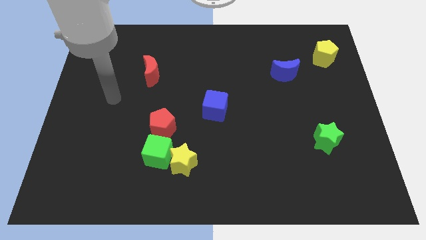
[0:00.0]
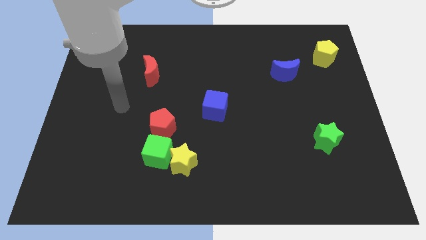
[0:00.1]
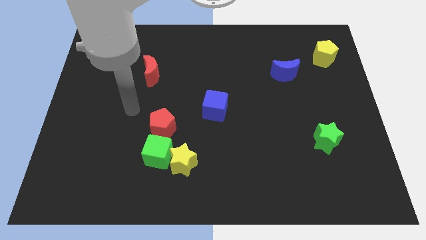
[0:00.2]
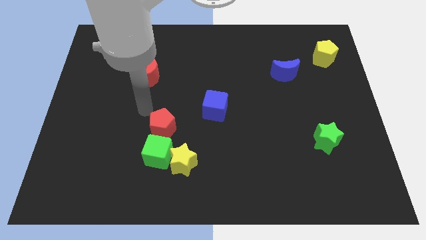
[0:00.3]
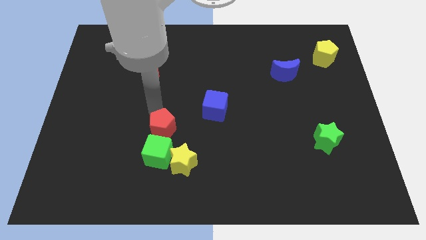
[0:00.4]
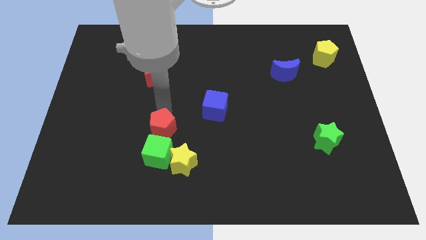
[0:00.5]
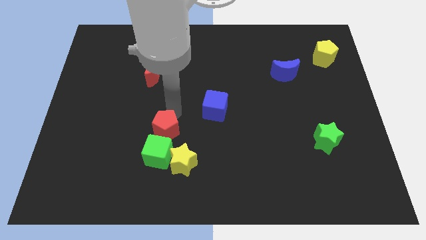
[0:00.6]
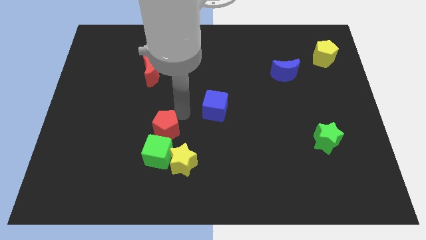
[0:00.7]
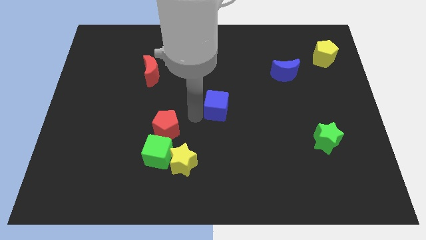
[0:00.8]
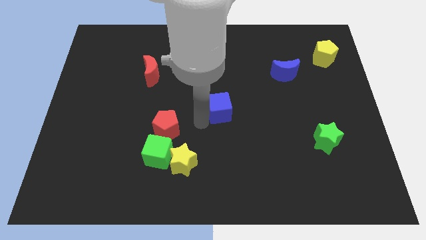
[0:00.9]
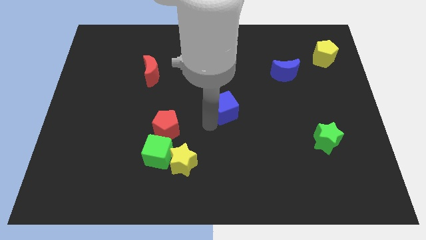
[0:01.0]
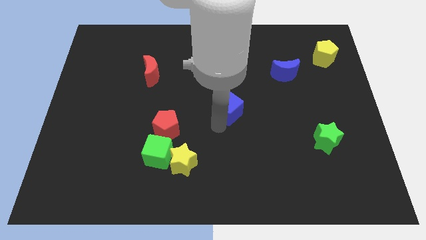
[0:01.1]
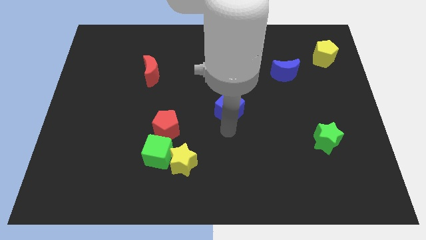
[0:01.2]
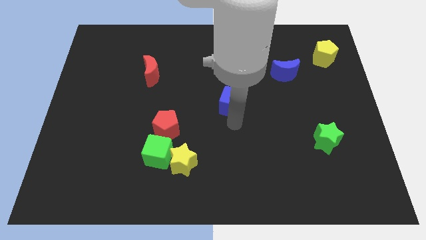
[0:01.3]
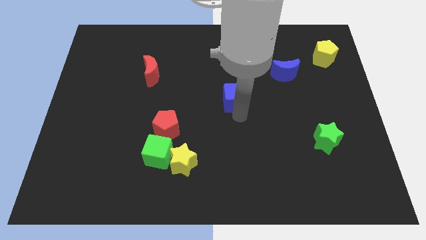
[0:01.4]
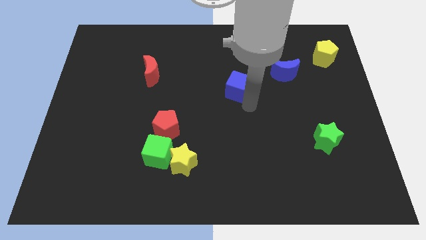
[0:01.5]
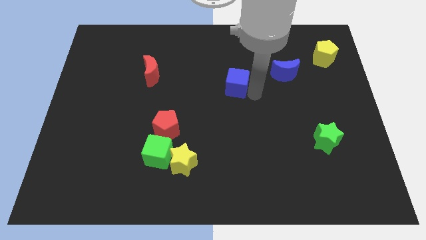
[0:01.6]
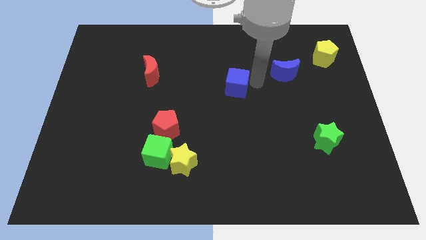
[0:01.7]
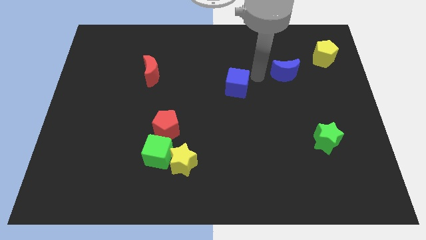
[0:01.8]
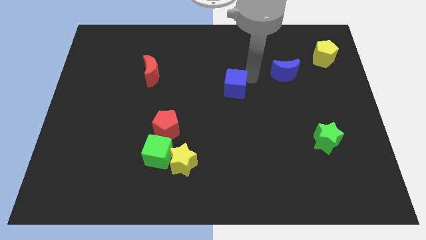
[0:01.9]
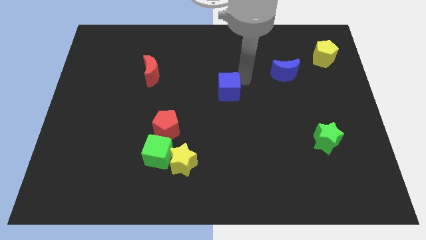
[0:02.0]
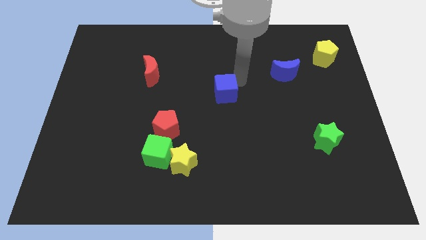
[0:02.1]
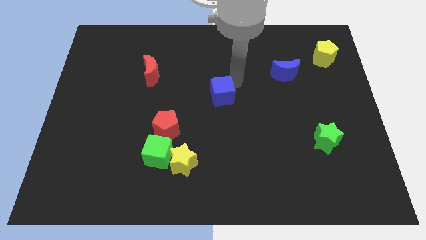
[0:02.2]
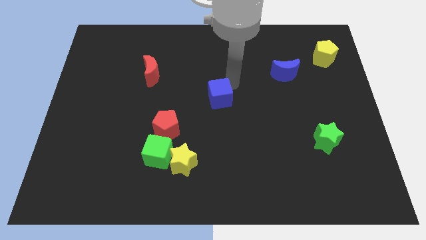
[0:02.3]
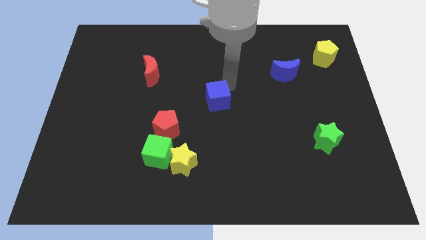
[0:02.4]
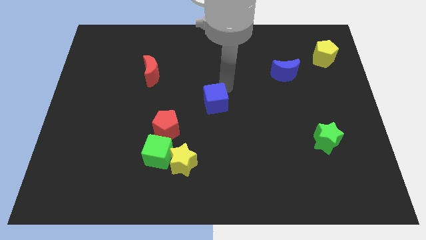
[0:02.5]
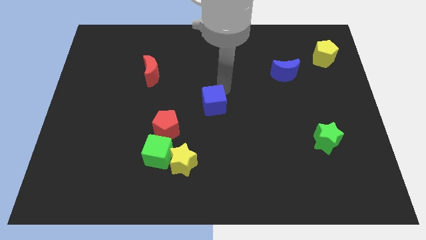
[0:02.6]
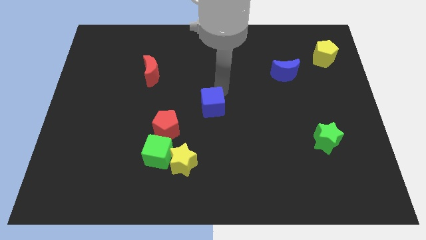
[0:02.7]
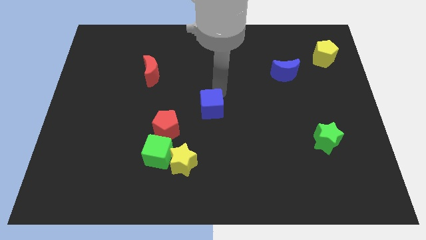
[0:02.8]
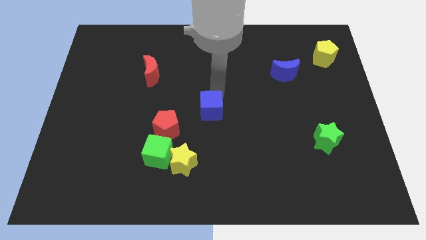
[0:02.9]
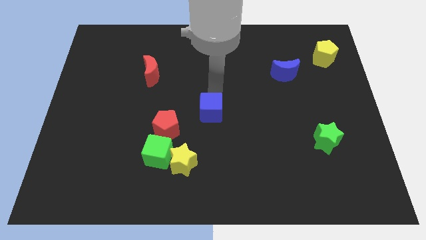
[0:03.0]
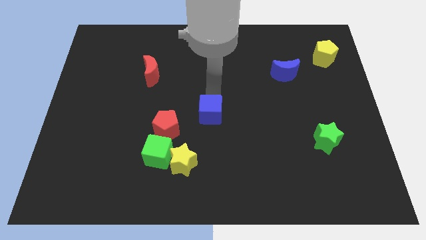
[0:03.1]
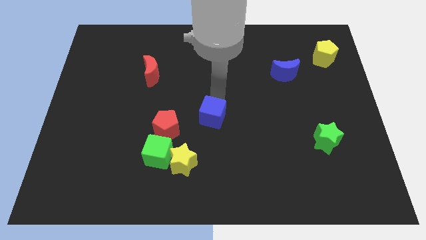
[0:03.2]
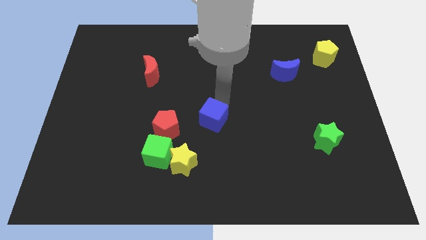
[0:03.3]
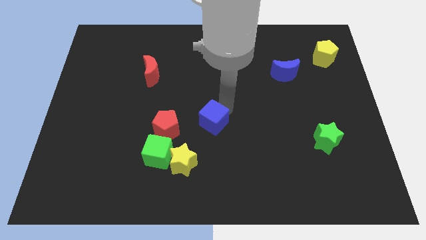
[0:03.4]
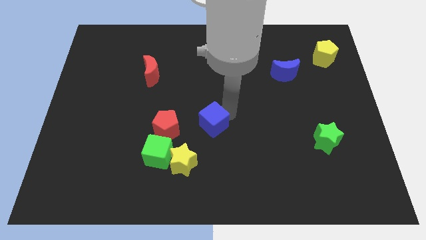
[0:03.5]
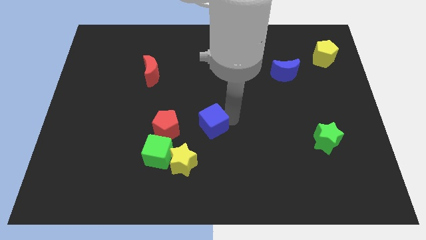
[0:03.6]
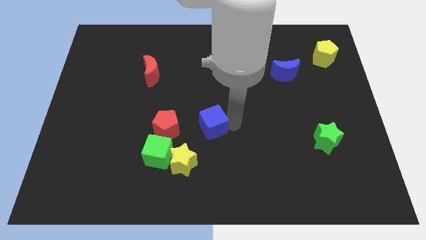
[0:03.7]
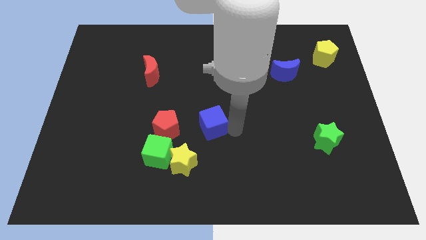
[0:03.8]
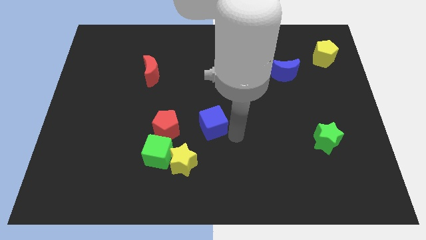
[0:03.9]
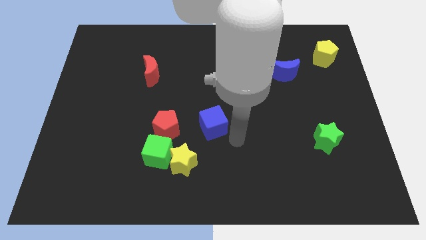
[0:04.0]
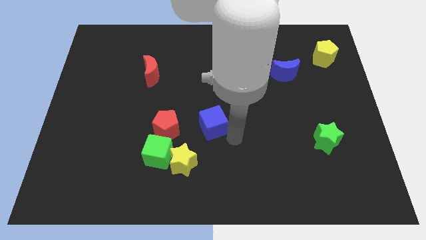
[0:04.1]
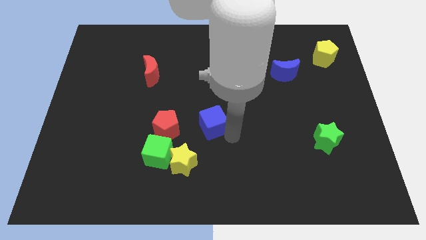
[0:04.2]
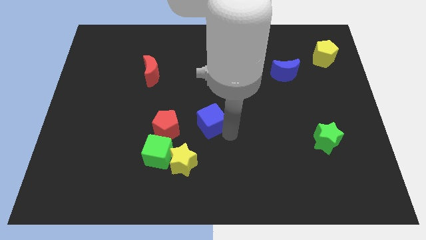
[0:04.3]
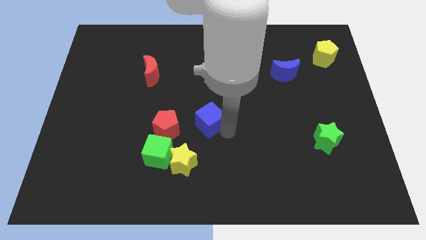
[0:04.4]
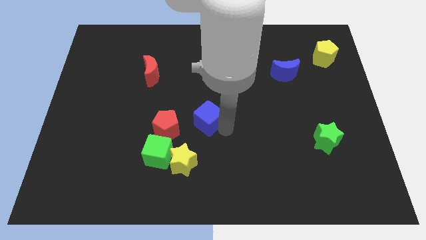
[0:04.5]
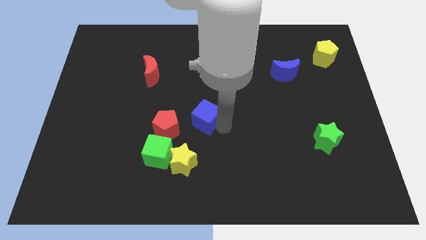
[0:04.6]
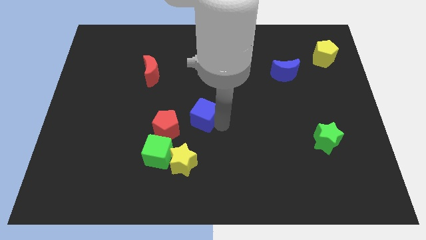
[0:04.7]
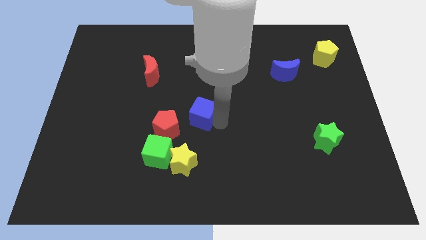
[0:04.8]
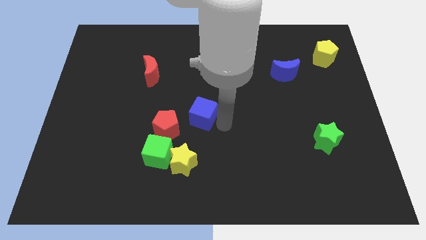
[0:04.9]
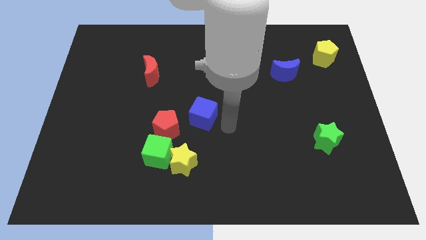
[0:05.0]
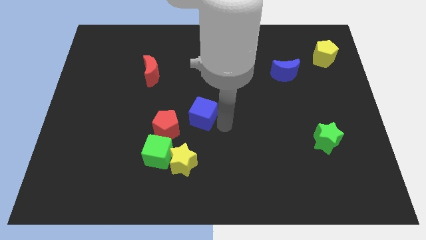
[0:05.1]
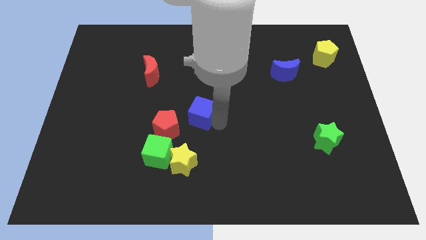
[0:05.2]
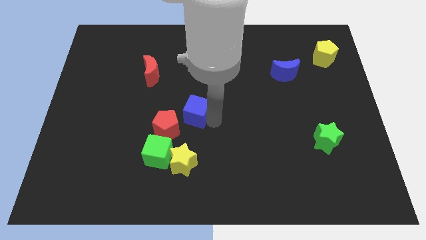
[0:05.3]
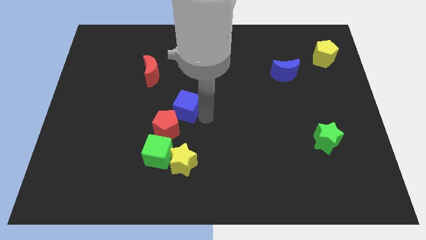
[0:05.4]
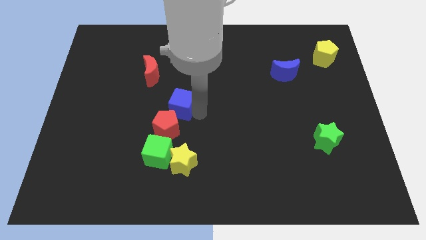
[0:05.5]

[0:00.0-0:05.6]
slightly push the blue cube left

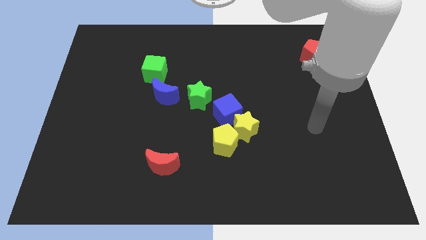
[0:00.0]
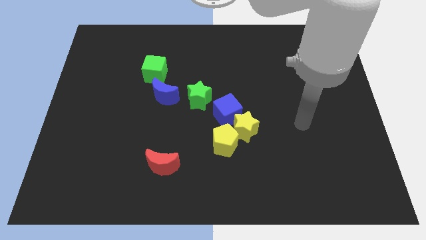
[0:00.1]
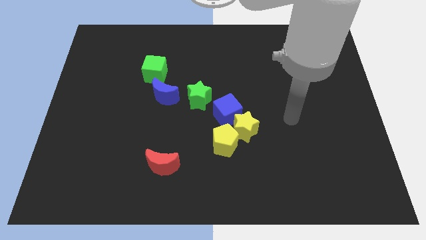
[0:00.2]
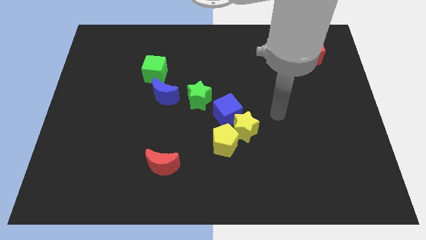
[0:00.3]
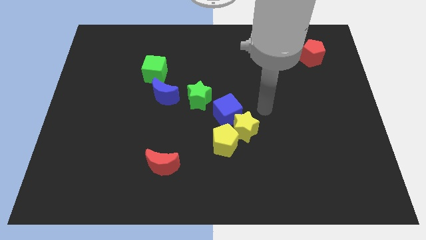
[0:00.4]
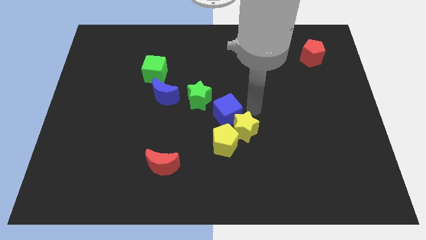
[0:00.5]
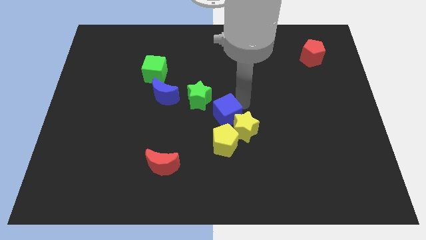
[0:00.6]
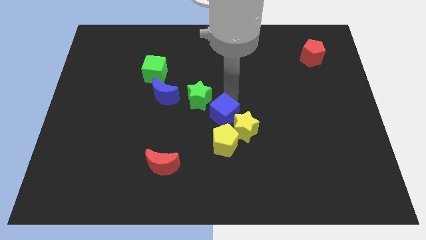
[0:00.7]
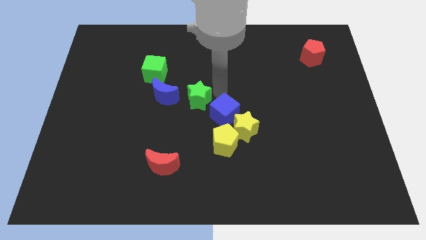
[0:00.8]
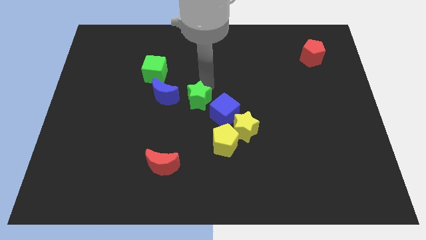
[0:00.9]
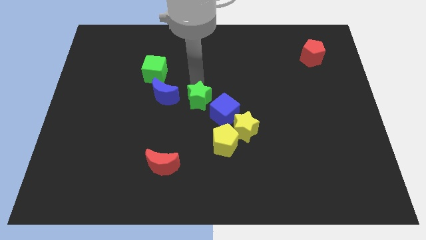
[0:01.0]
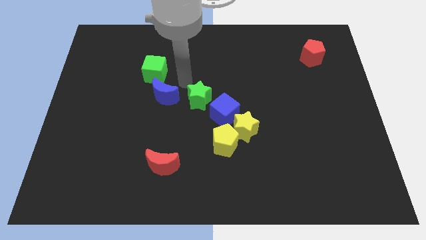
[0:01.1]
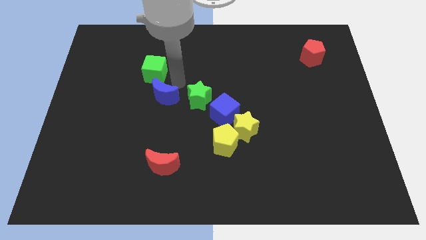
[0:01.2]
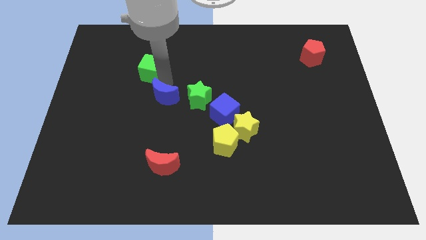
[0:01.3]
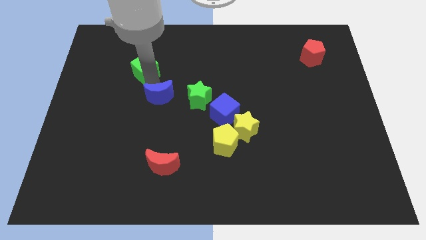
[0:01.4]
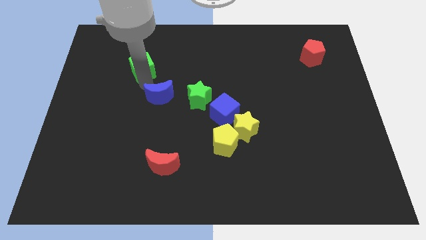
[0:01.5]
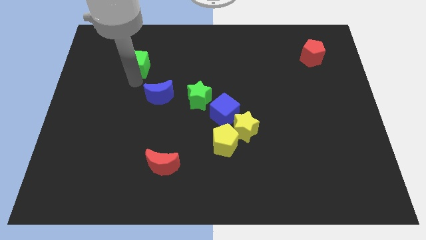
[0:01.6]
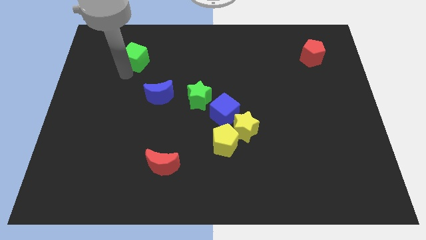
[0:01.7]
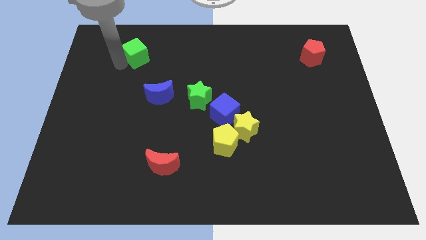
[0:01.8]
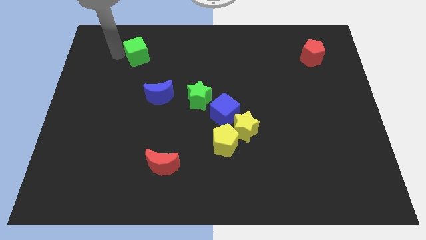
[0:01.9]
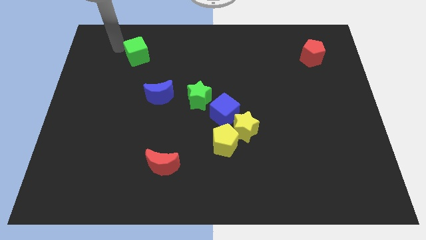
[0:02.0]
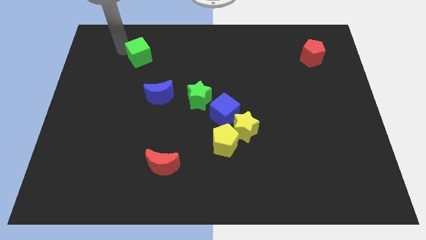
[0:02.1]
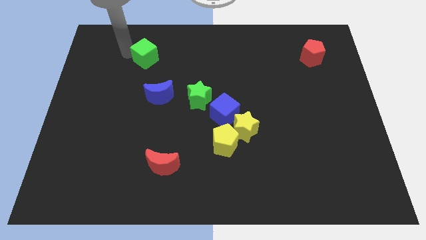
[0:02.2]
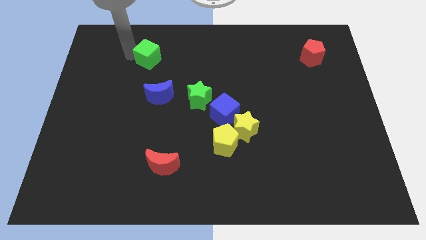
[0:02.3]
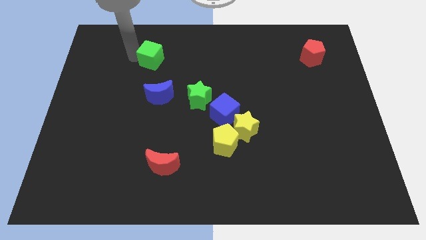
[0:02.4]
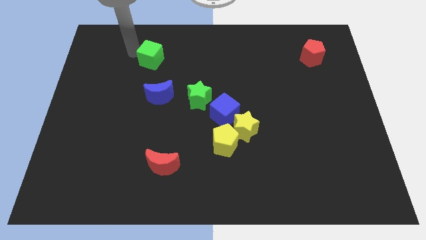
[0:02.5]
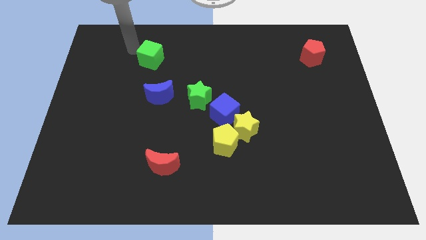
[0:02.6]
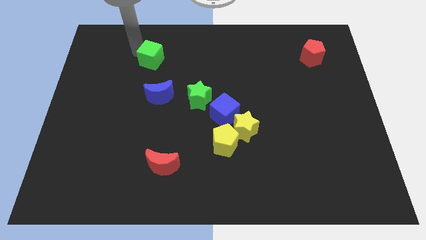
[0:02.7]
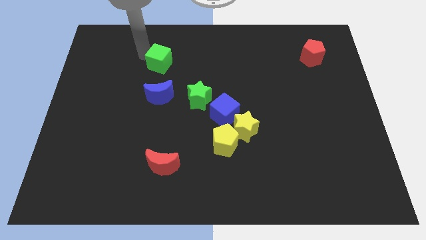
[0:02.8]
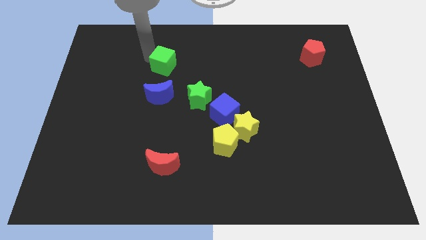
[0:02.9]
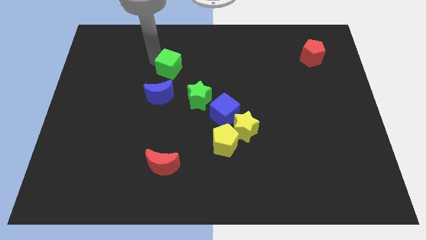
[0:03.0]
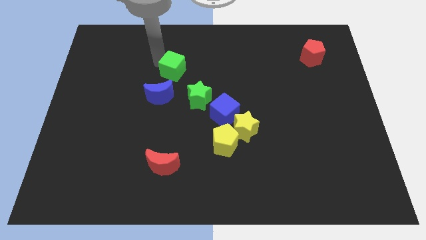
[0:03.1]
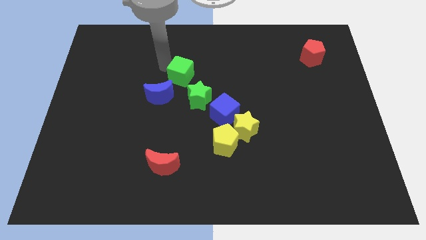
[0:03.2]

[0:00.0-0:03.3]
slightly move the green cube right
